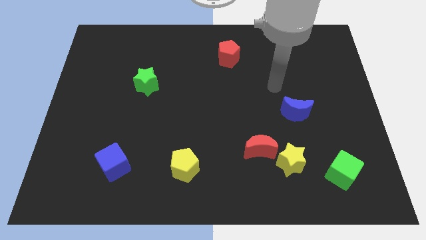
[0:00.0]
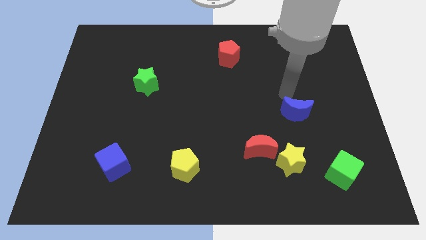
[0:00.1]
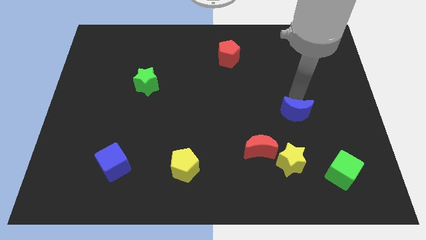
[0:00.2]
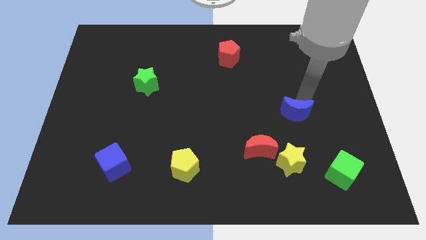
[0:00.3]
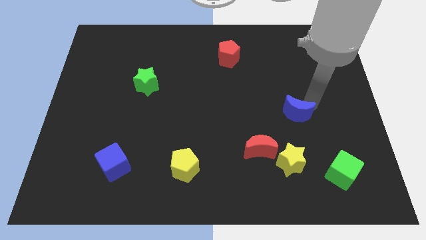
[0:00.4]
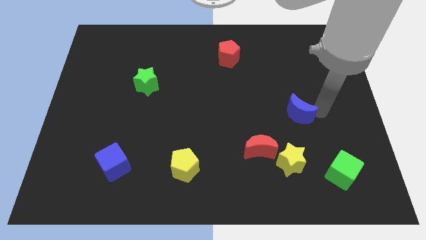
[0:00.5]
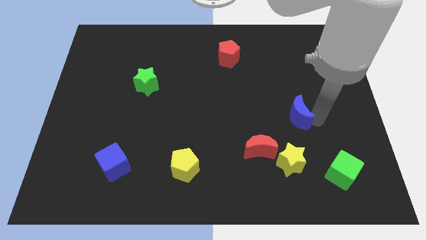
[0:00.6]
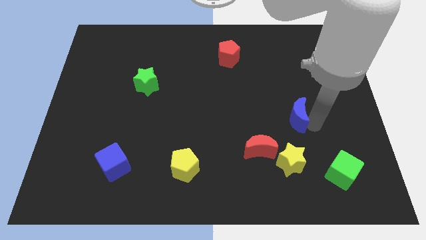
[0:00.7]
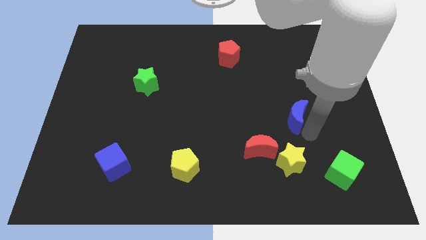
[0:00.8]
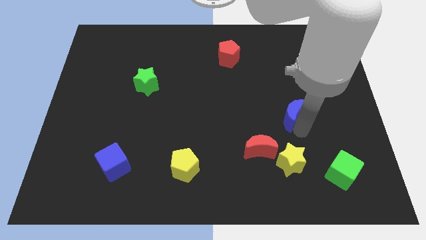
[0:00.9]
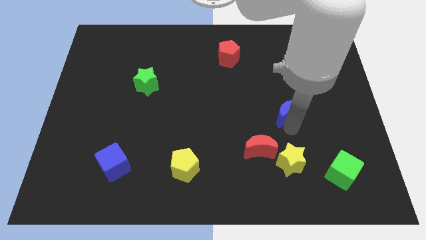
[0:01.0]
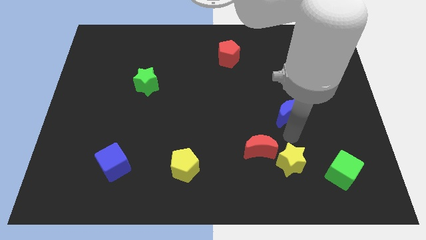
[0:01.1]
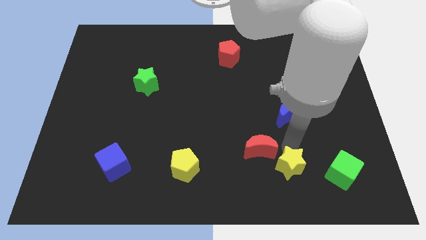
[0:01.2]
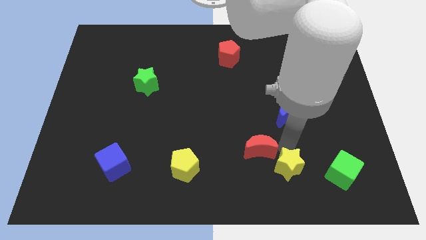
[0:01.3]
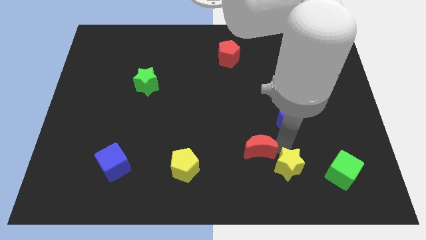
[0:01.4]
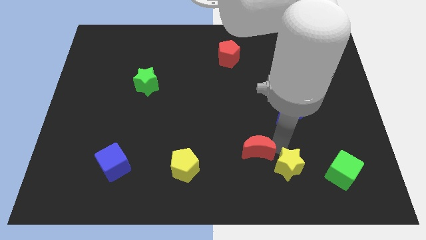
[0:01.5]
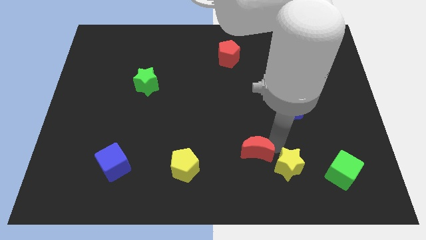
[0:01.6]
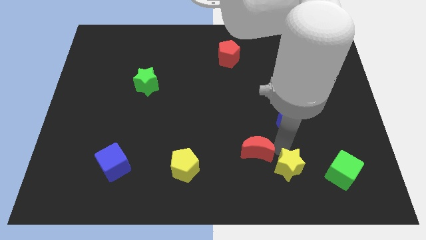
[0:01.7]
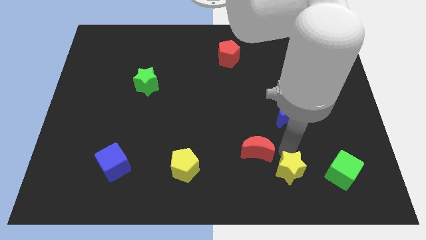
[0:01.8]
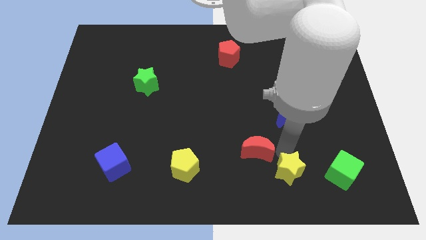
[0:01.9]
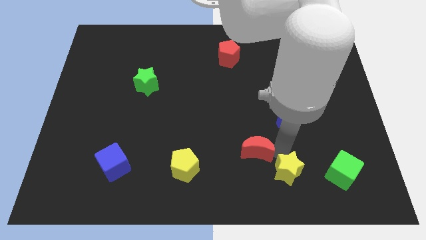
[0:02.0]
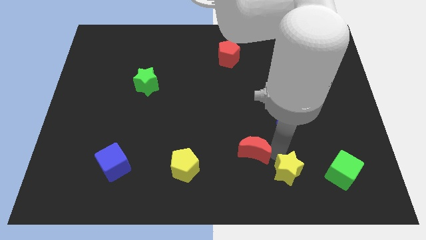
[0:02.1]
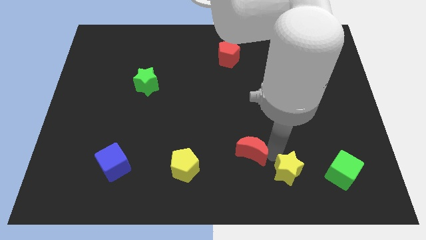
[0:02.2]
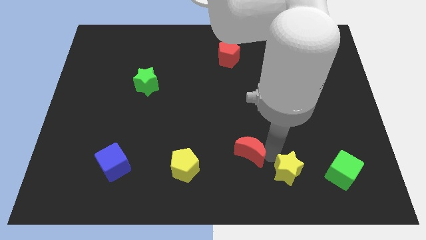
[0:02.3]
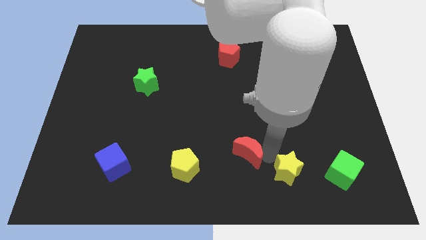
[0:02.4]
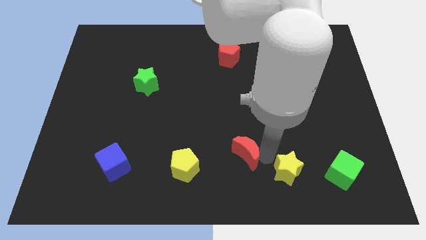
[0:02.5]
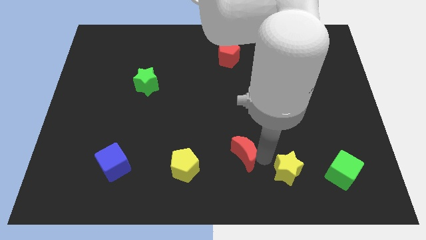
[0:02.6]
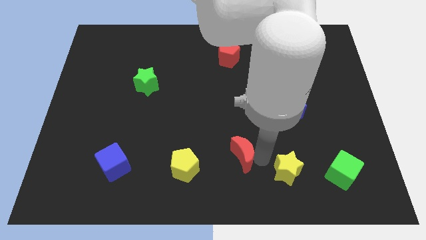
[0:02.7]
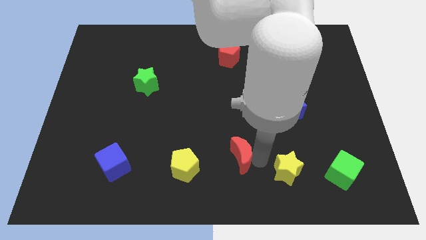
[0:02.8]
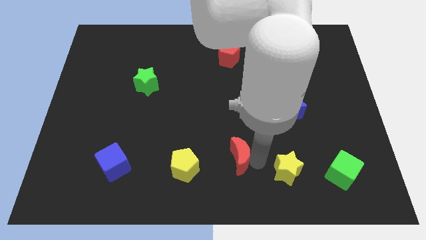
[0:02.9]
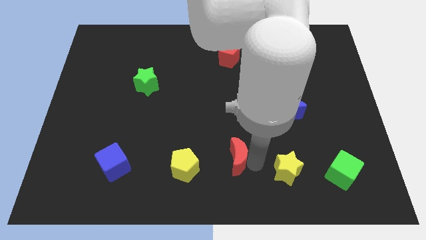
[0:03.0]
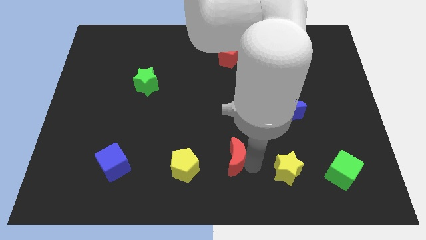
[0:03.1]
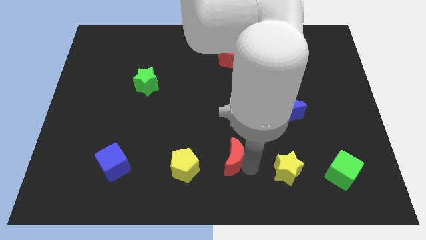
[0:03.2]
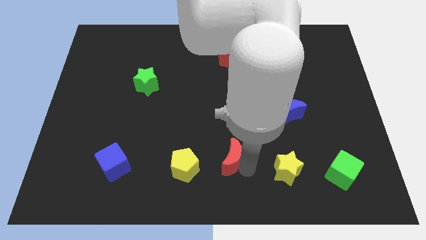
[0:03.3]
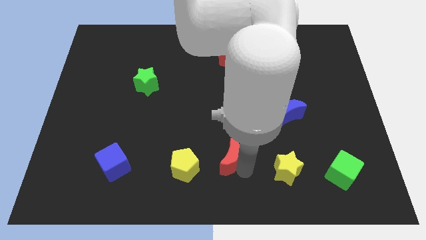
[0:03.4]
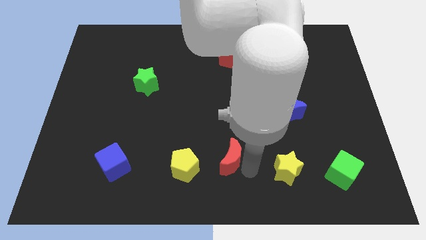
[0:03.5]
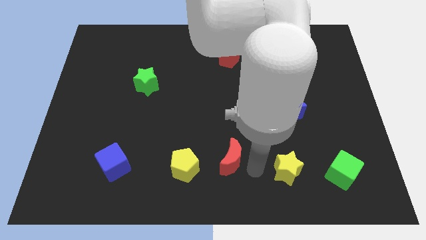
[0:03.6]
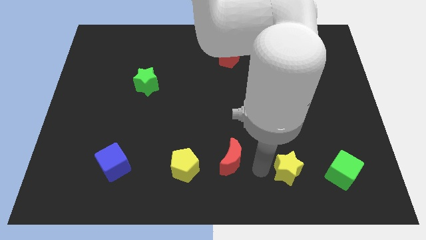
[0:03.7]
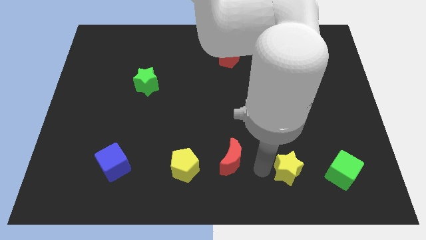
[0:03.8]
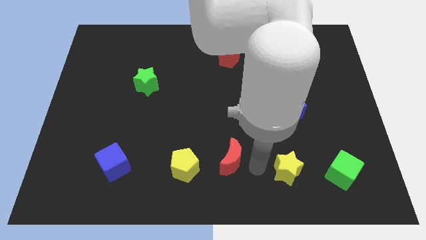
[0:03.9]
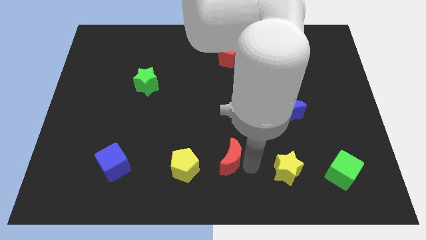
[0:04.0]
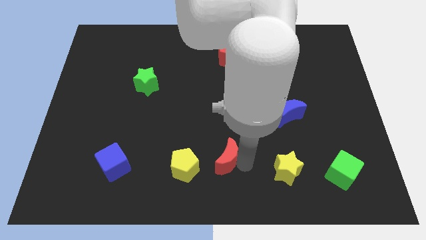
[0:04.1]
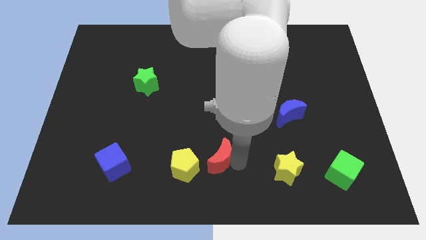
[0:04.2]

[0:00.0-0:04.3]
slide the red moon to the left slightly

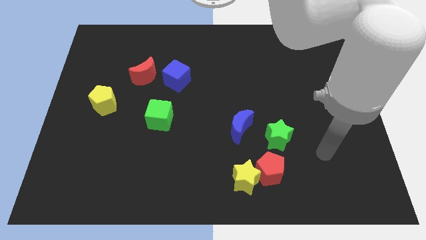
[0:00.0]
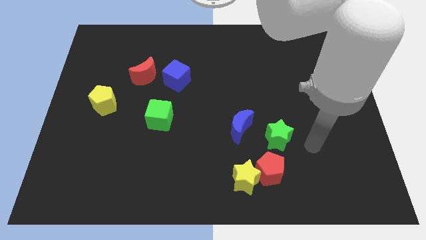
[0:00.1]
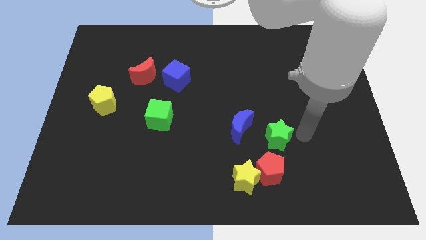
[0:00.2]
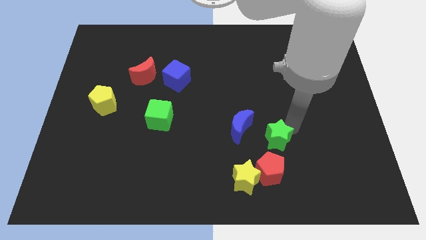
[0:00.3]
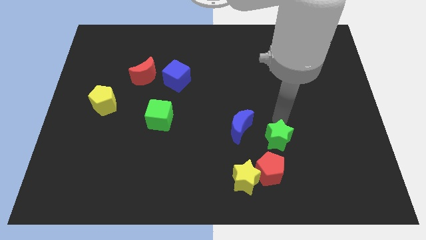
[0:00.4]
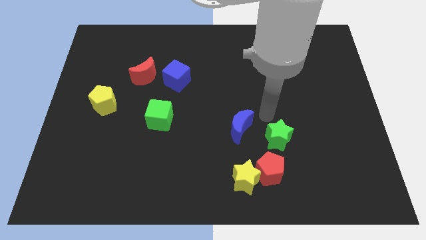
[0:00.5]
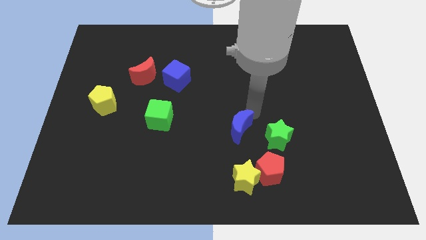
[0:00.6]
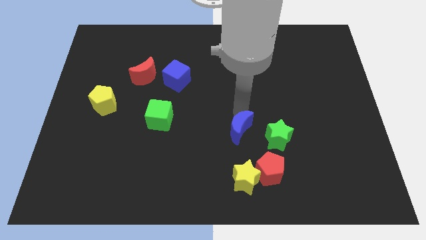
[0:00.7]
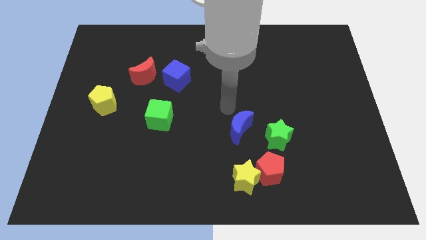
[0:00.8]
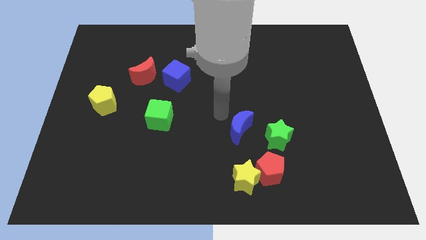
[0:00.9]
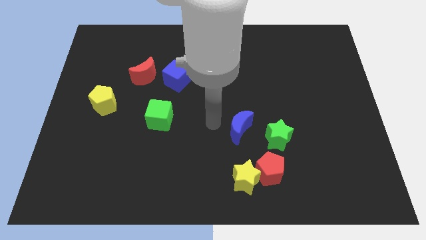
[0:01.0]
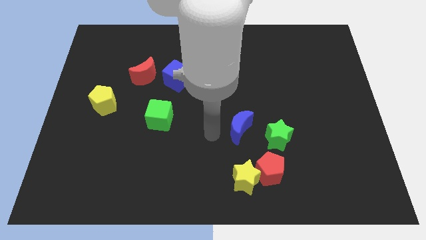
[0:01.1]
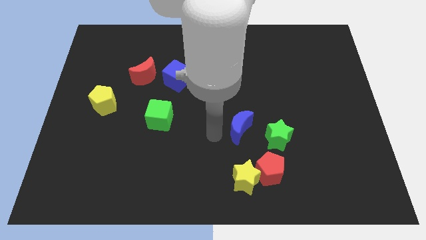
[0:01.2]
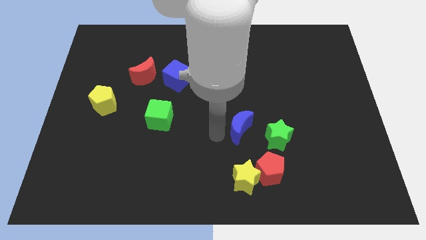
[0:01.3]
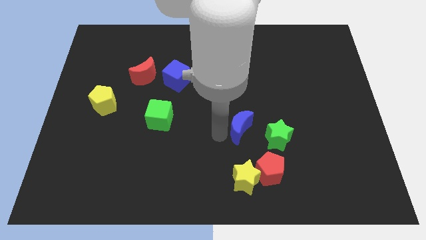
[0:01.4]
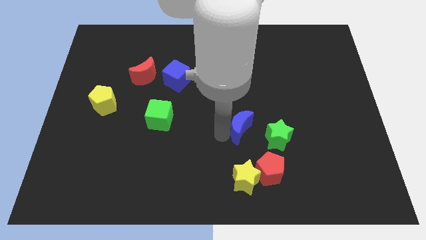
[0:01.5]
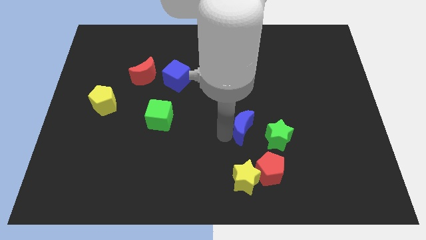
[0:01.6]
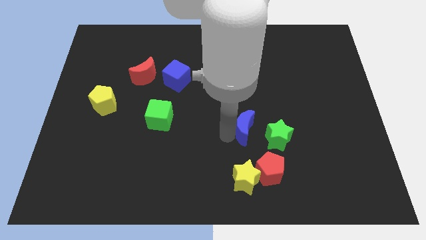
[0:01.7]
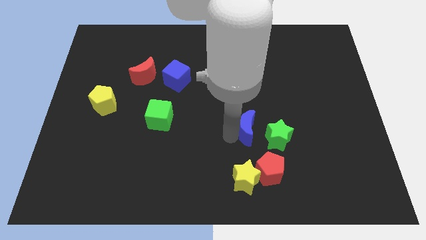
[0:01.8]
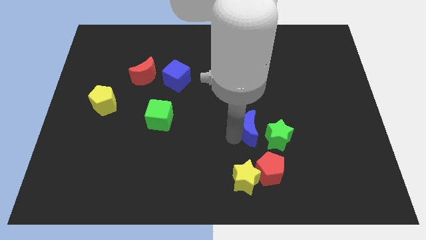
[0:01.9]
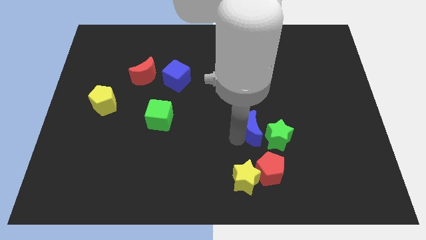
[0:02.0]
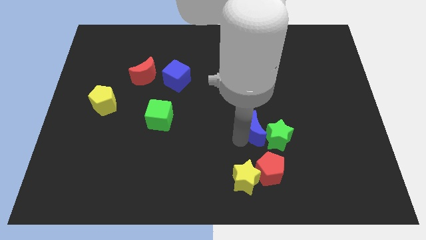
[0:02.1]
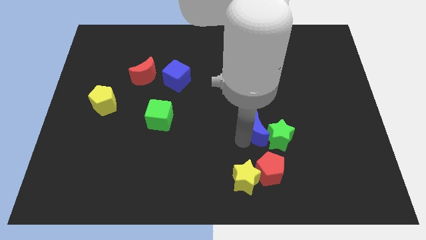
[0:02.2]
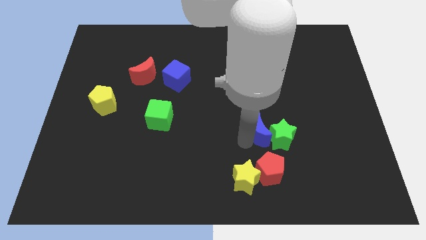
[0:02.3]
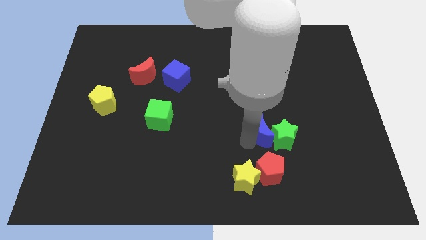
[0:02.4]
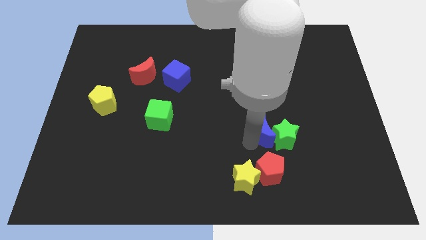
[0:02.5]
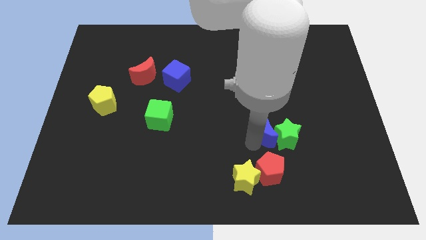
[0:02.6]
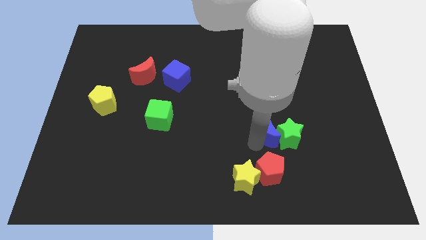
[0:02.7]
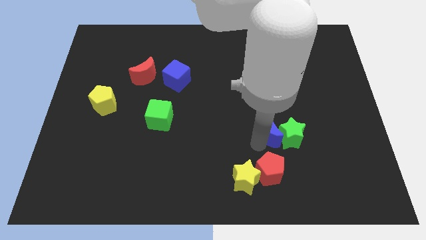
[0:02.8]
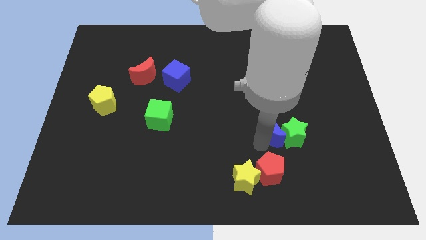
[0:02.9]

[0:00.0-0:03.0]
push the blue moon somewhat right
